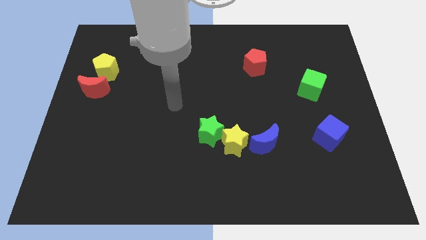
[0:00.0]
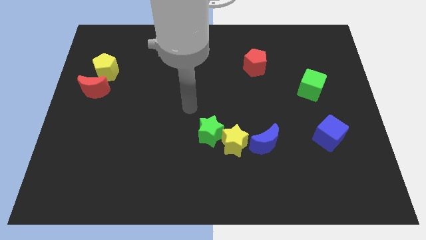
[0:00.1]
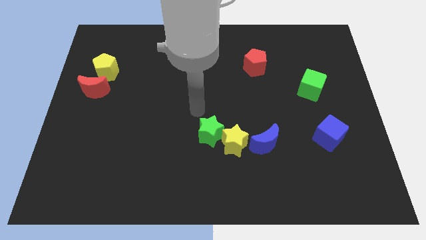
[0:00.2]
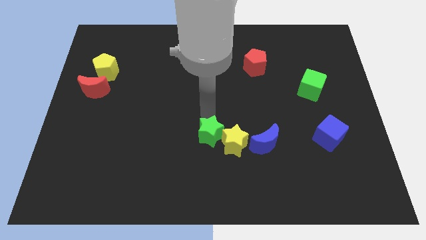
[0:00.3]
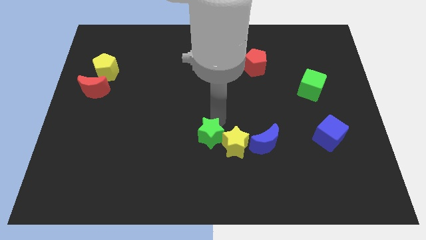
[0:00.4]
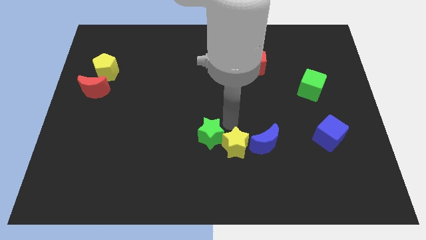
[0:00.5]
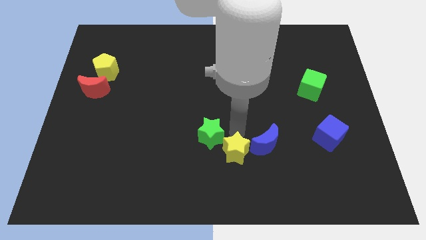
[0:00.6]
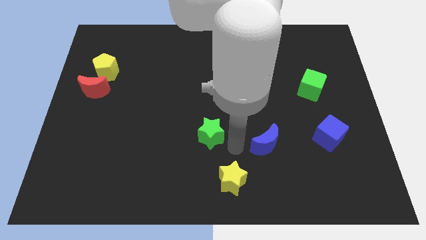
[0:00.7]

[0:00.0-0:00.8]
separate the green star from the yellow star

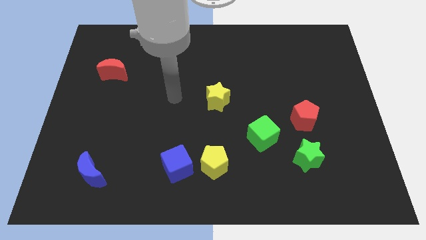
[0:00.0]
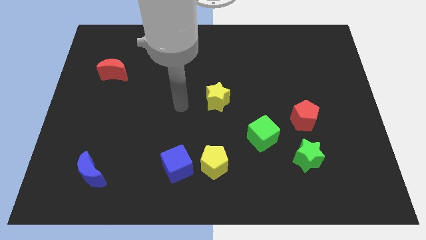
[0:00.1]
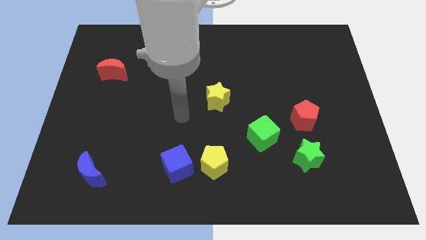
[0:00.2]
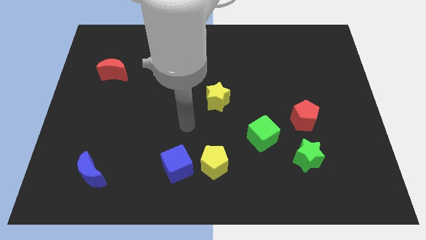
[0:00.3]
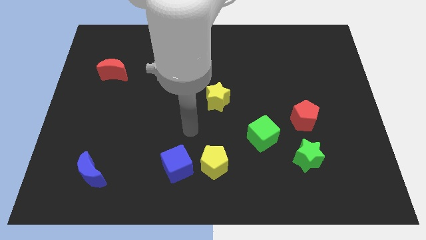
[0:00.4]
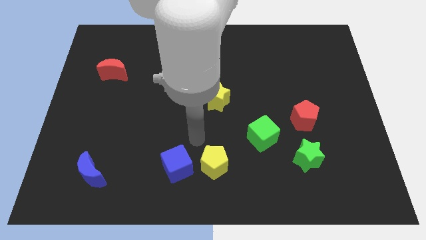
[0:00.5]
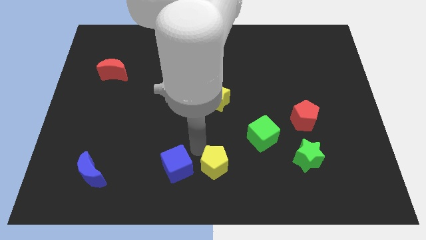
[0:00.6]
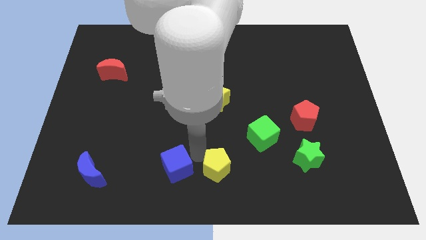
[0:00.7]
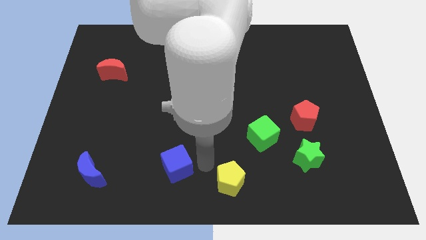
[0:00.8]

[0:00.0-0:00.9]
pull the blue cube apart from the yellow pentagon

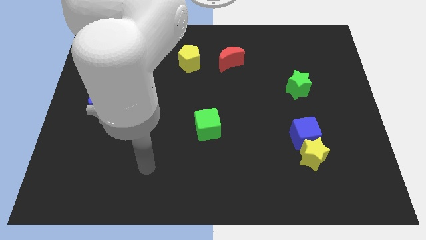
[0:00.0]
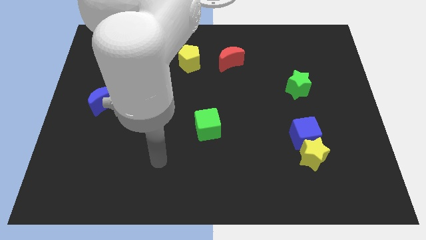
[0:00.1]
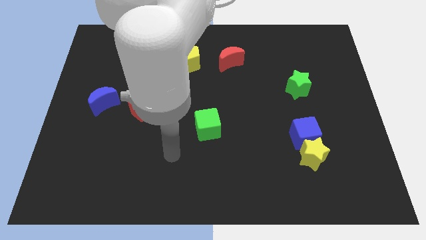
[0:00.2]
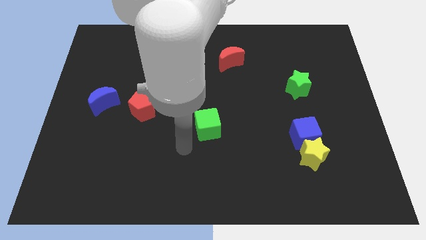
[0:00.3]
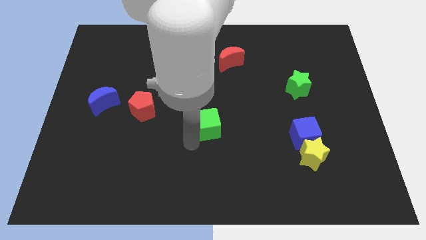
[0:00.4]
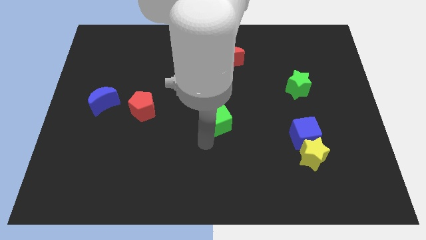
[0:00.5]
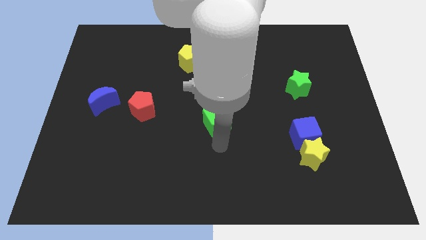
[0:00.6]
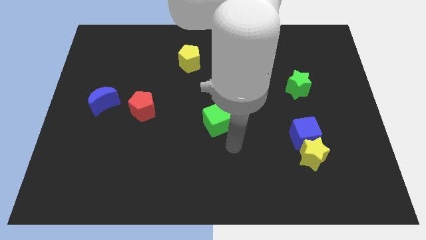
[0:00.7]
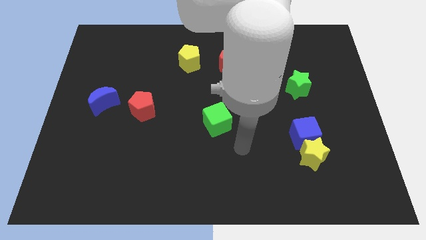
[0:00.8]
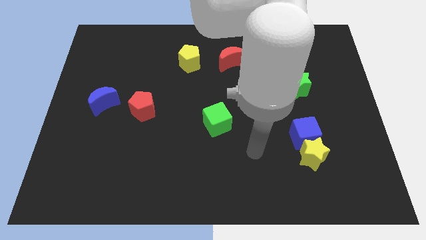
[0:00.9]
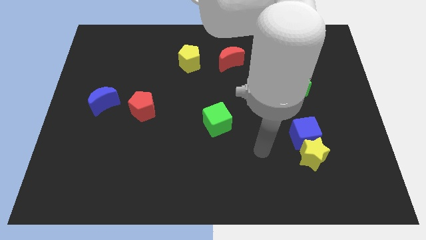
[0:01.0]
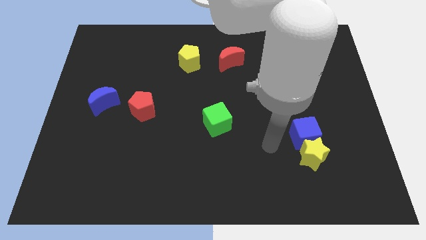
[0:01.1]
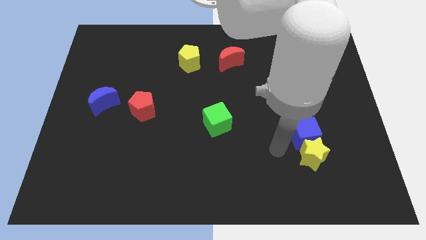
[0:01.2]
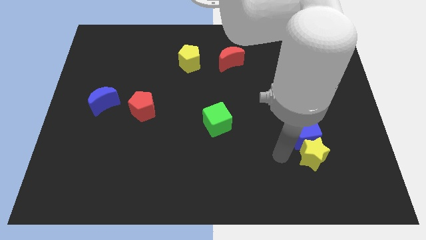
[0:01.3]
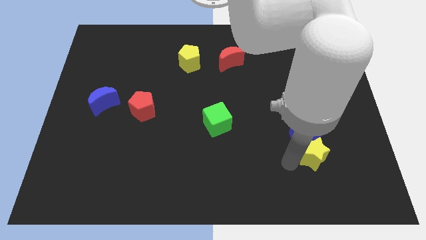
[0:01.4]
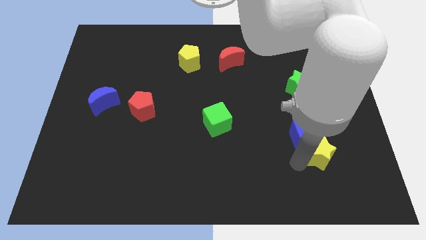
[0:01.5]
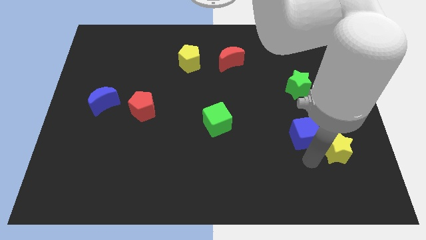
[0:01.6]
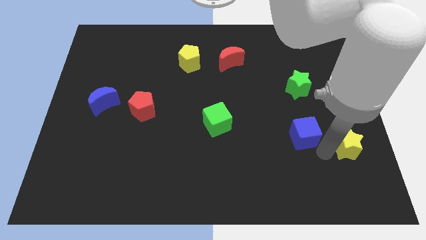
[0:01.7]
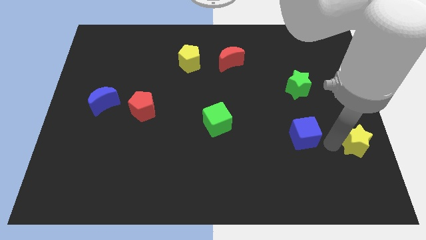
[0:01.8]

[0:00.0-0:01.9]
pull the blue cube apart from the yellow star

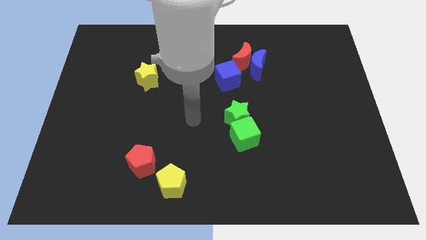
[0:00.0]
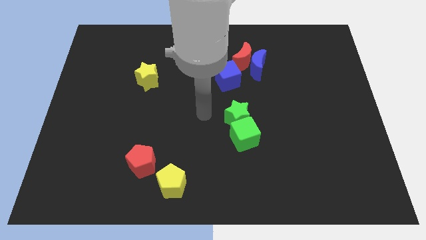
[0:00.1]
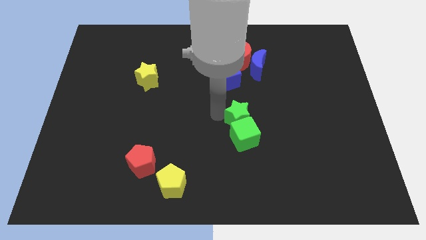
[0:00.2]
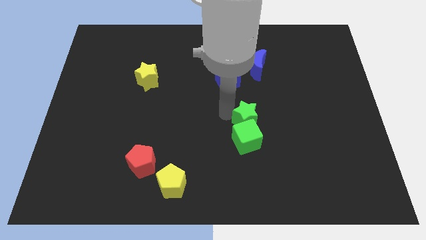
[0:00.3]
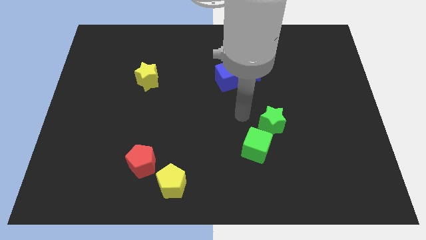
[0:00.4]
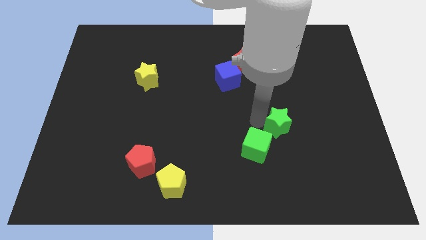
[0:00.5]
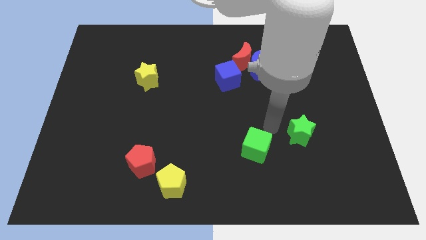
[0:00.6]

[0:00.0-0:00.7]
move the green cube away from the green star

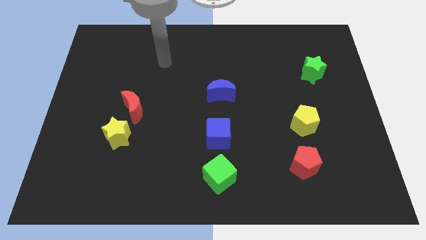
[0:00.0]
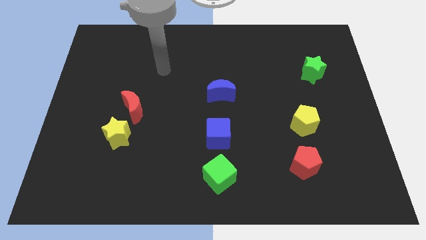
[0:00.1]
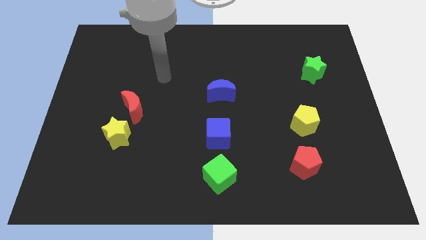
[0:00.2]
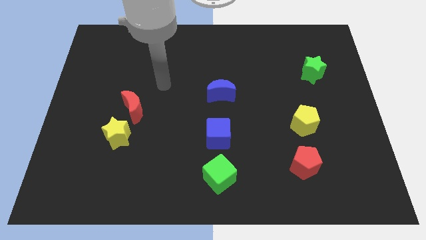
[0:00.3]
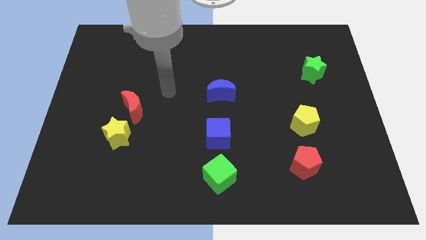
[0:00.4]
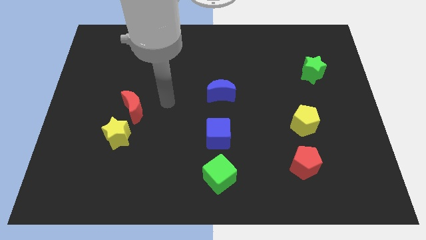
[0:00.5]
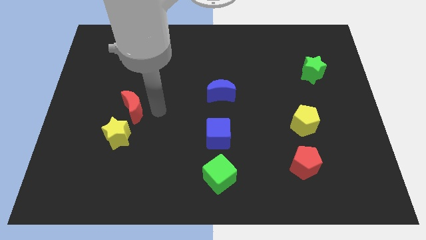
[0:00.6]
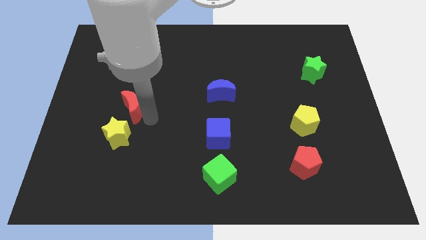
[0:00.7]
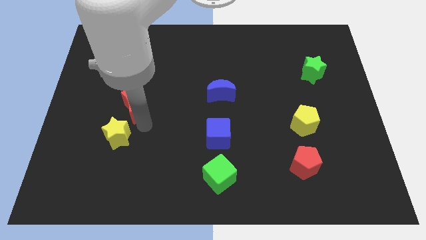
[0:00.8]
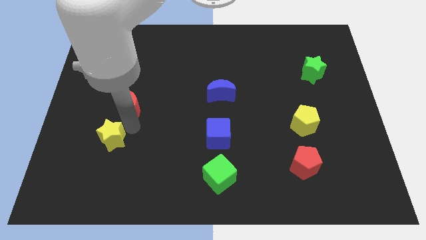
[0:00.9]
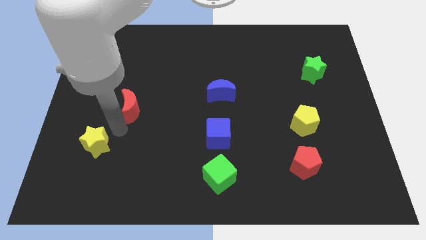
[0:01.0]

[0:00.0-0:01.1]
separate the red moon from the yellow star

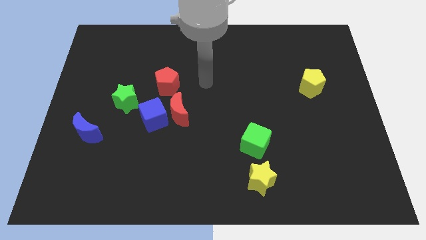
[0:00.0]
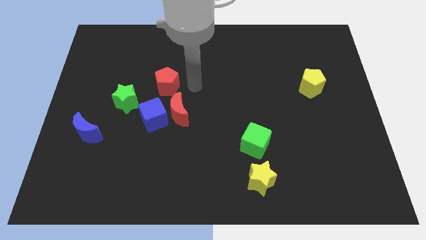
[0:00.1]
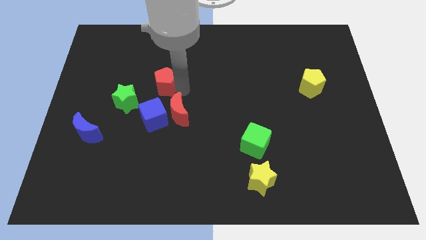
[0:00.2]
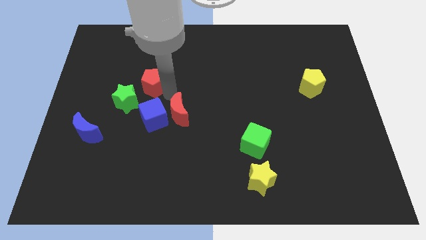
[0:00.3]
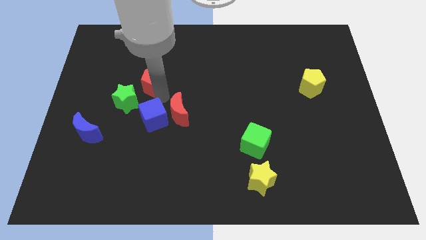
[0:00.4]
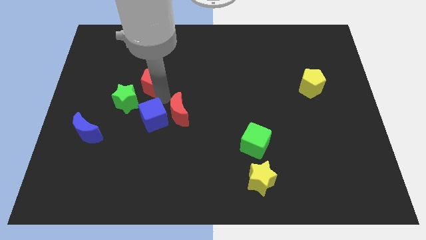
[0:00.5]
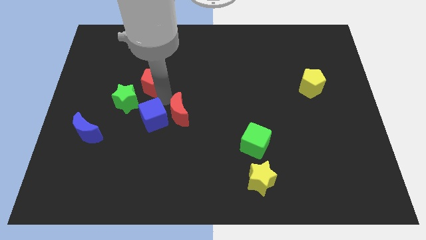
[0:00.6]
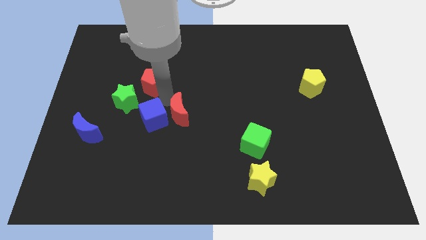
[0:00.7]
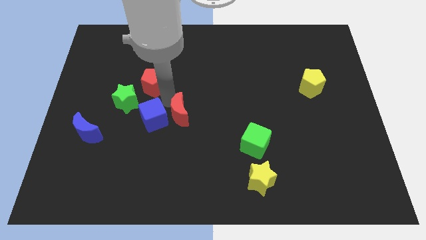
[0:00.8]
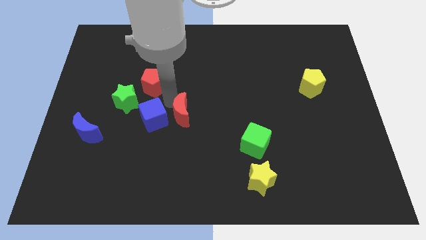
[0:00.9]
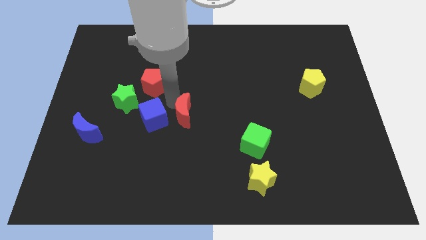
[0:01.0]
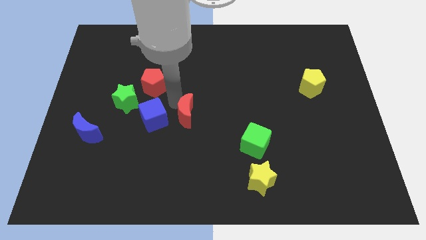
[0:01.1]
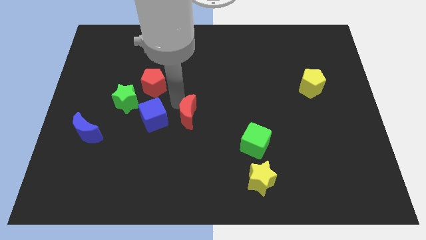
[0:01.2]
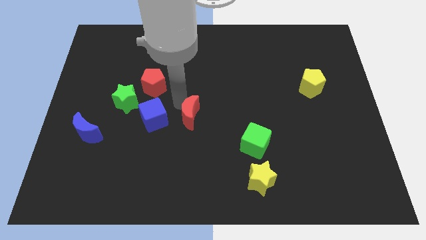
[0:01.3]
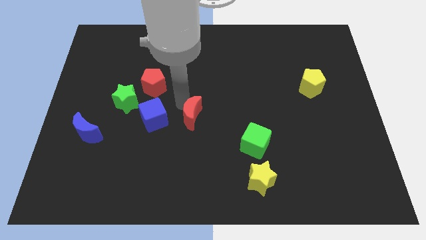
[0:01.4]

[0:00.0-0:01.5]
pull the red moon apart from the blue cube and red pentagon

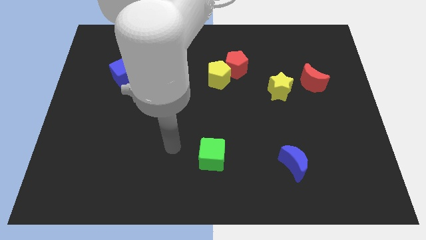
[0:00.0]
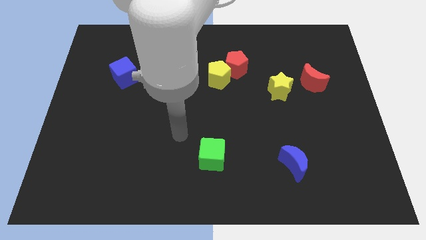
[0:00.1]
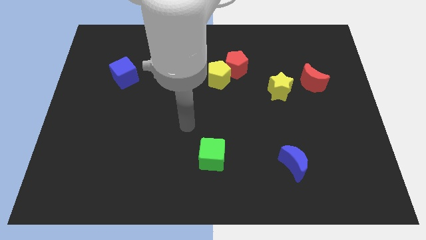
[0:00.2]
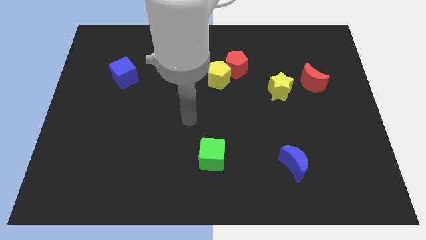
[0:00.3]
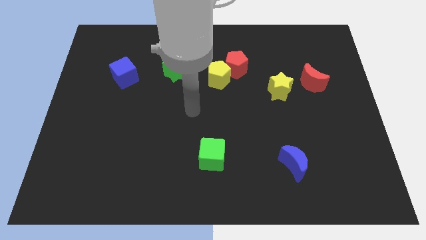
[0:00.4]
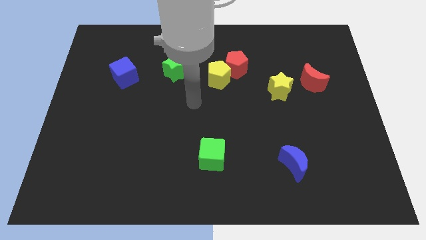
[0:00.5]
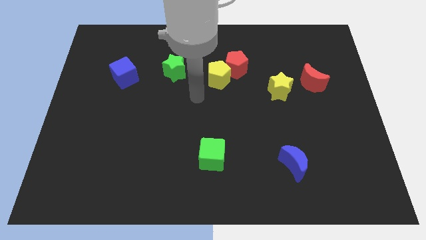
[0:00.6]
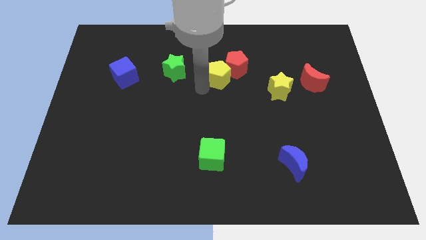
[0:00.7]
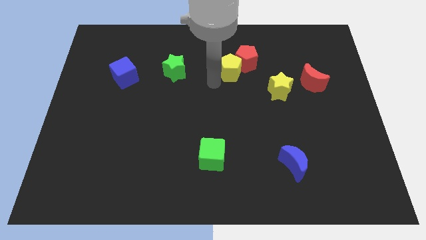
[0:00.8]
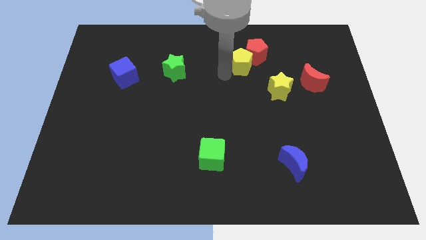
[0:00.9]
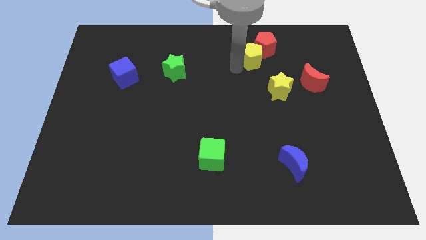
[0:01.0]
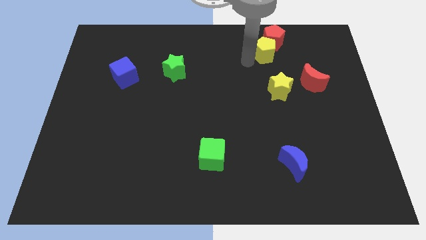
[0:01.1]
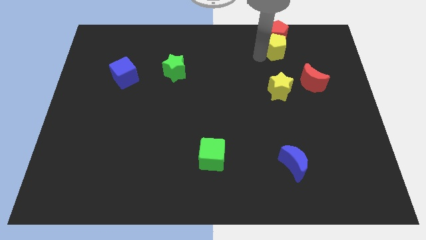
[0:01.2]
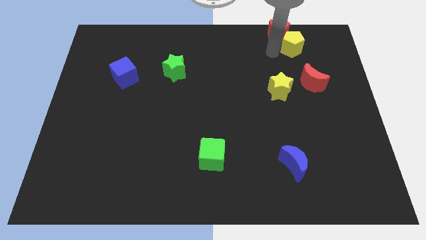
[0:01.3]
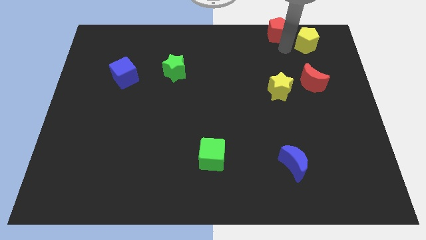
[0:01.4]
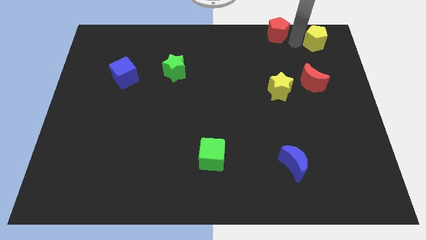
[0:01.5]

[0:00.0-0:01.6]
pull the red pentagon apart from the yellow pentagon

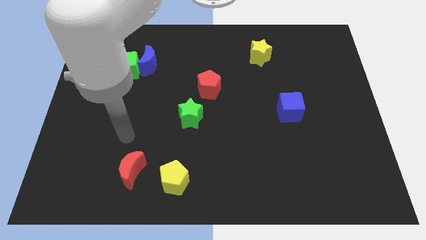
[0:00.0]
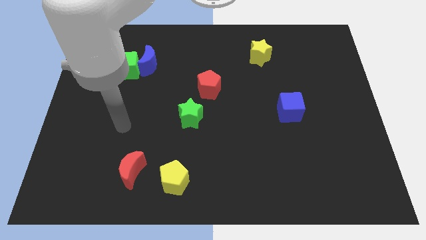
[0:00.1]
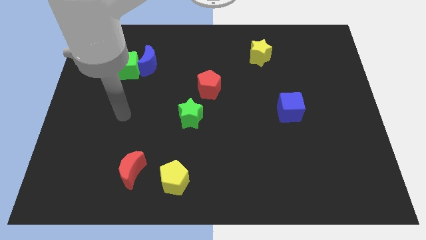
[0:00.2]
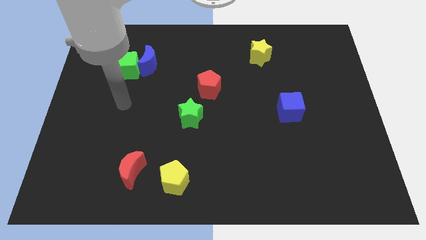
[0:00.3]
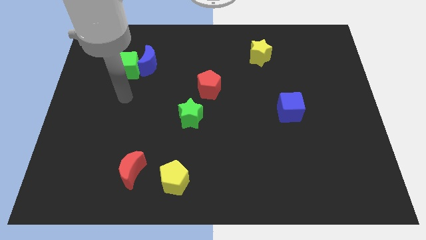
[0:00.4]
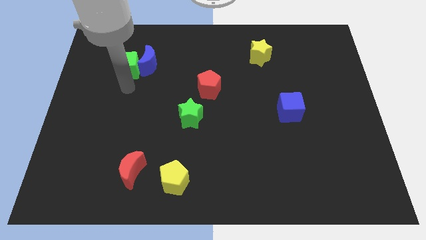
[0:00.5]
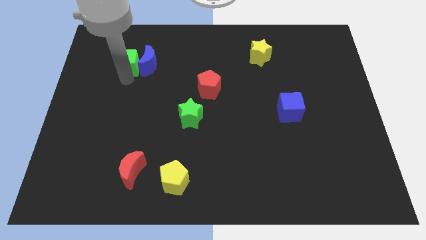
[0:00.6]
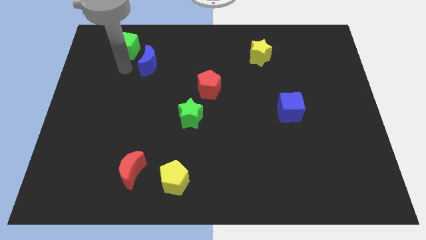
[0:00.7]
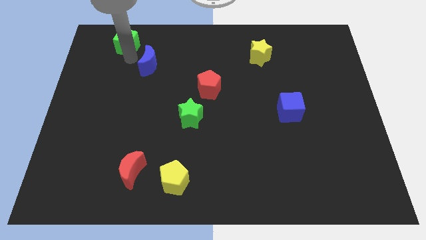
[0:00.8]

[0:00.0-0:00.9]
move the blue moon away from the green cube
